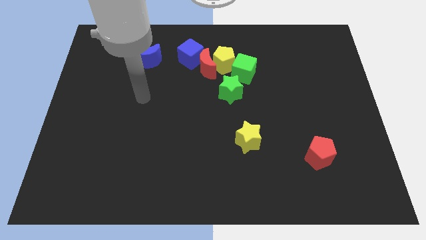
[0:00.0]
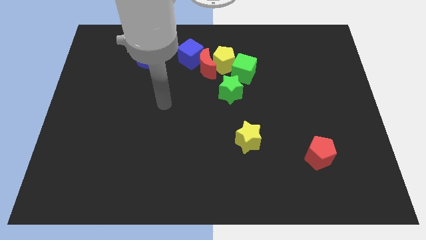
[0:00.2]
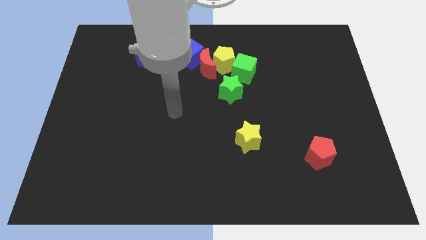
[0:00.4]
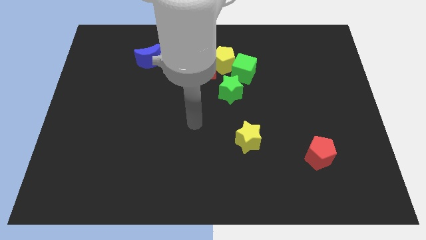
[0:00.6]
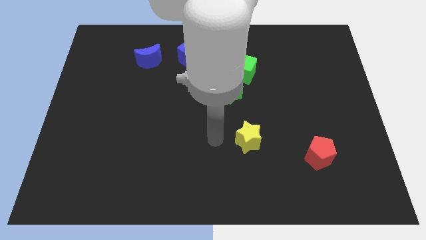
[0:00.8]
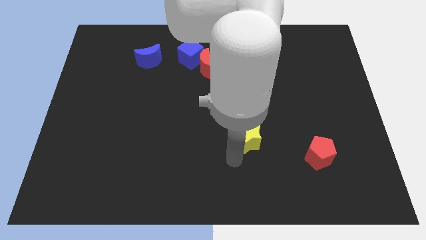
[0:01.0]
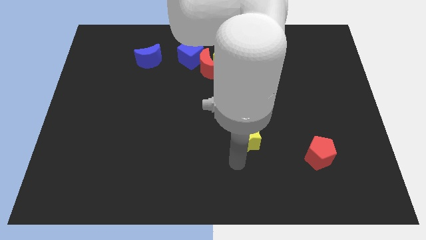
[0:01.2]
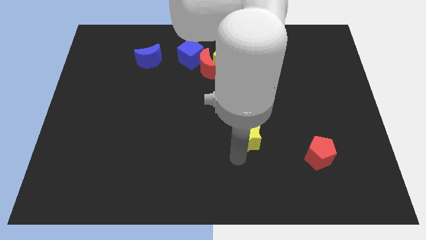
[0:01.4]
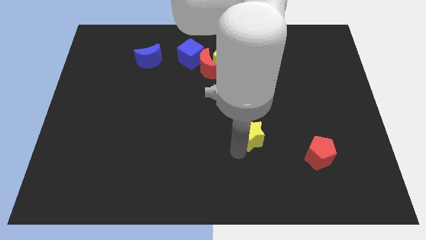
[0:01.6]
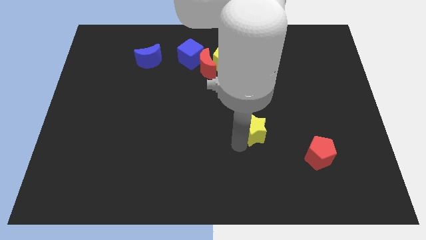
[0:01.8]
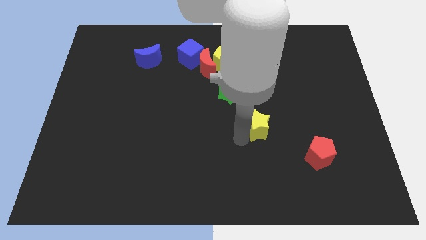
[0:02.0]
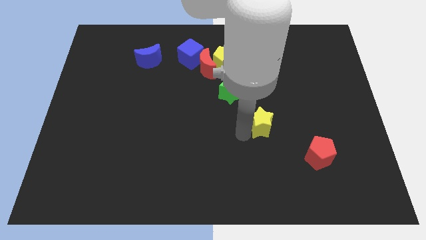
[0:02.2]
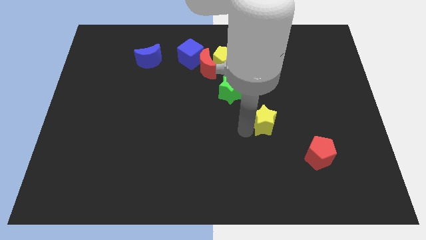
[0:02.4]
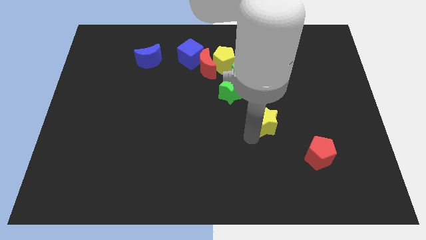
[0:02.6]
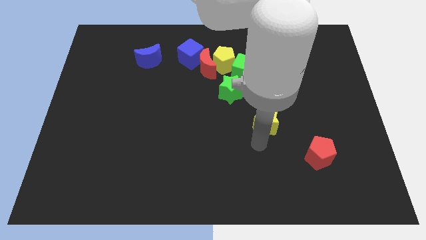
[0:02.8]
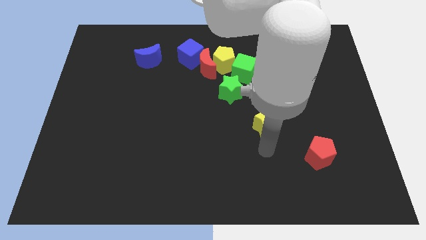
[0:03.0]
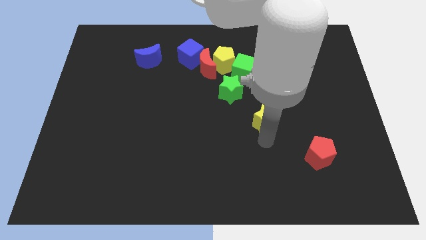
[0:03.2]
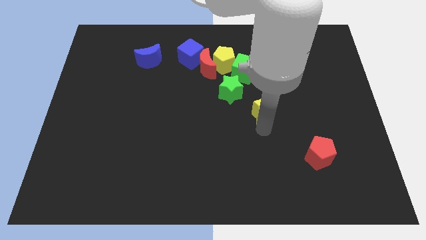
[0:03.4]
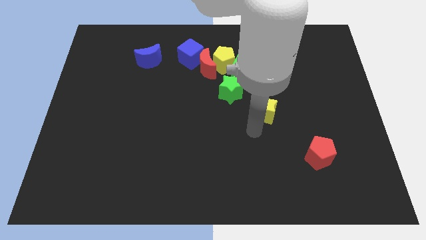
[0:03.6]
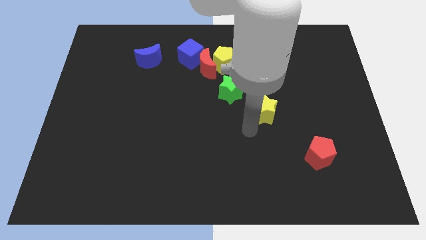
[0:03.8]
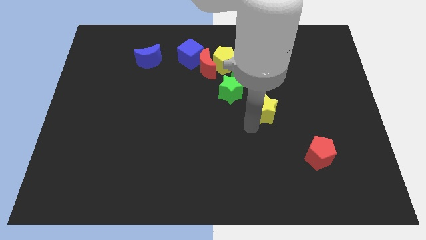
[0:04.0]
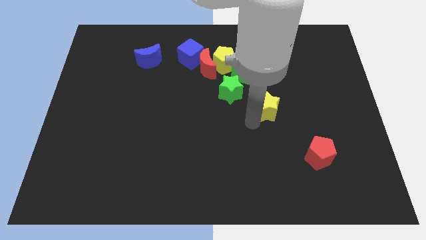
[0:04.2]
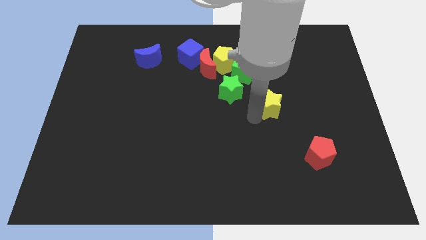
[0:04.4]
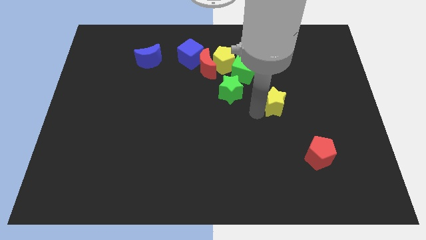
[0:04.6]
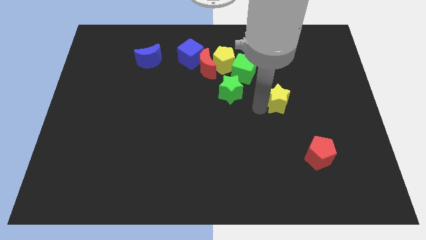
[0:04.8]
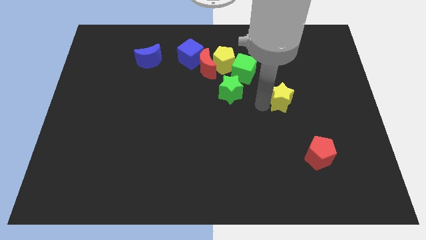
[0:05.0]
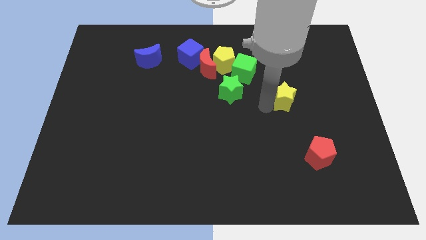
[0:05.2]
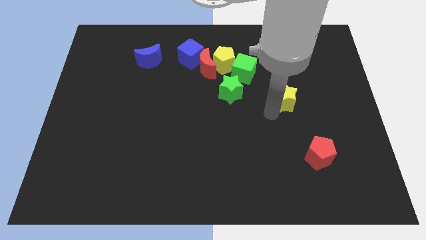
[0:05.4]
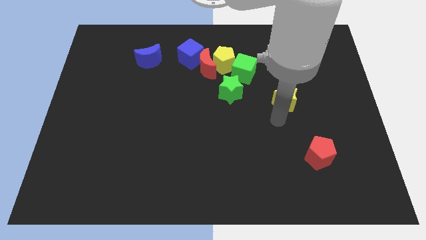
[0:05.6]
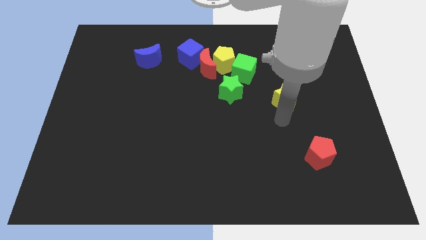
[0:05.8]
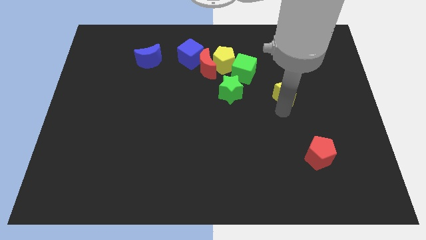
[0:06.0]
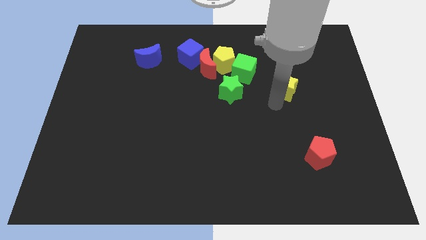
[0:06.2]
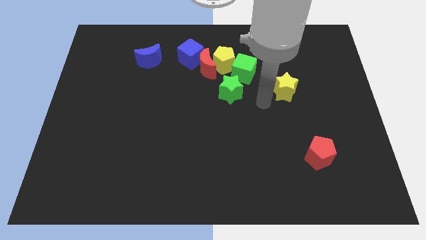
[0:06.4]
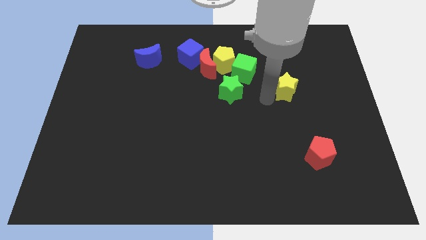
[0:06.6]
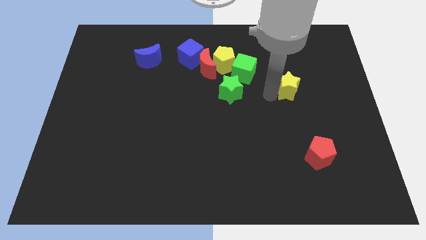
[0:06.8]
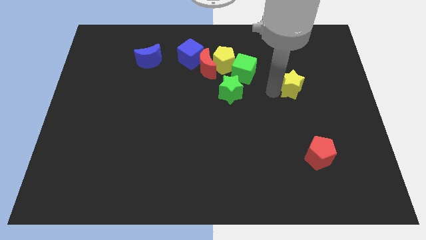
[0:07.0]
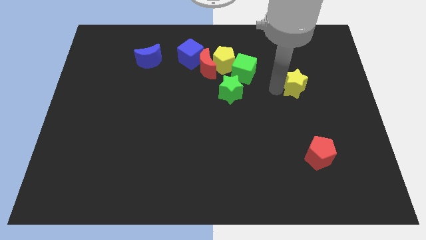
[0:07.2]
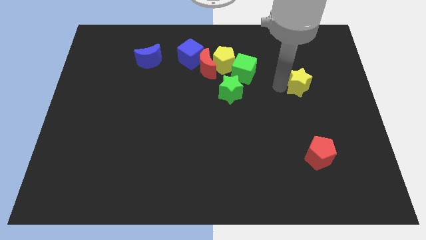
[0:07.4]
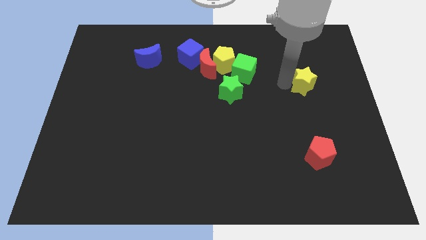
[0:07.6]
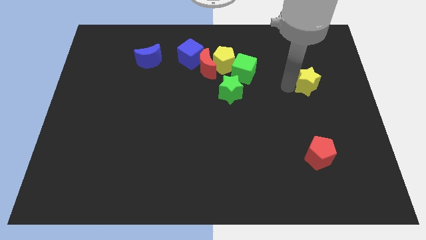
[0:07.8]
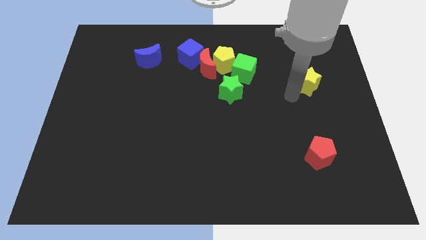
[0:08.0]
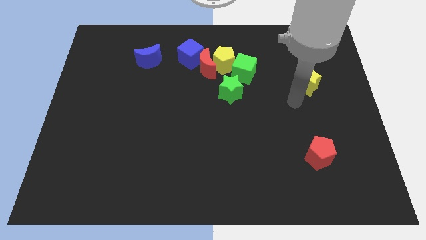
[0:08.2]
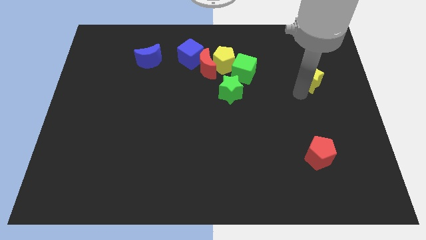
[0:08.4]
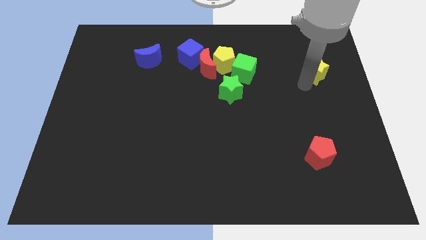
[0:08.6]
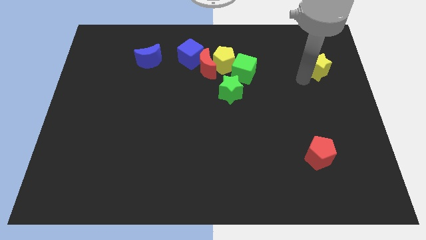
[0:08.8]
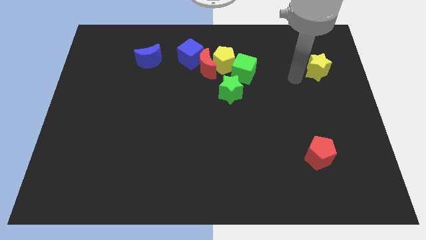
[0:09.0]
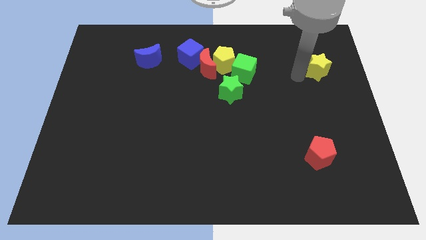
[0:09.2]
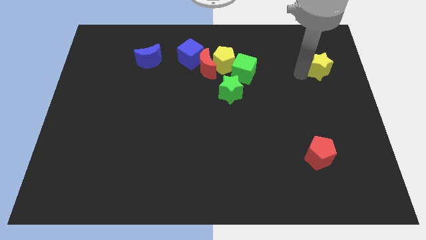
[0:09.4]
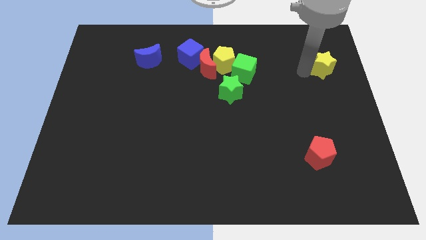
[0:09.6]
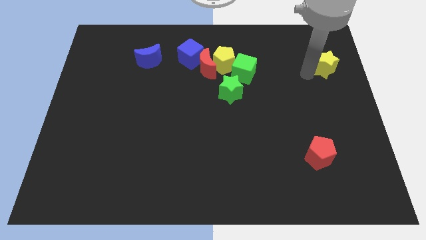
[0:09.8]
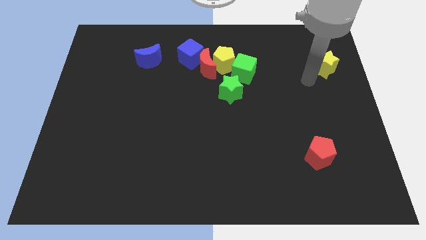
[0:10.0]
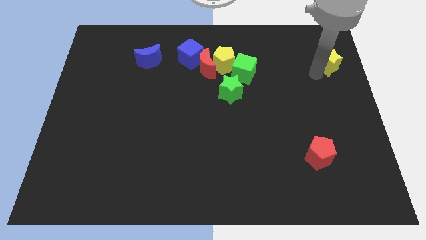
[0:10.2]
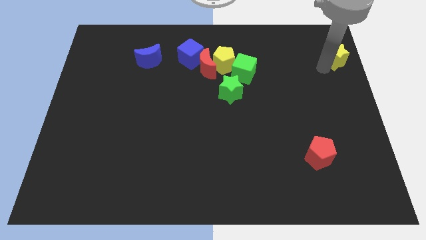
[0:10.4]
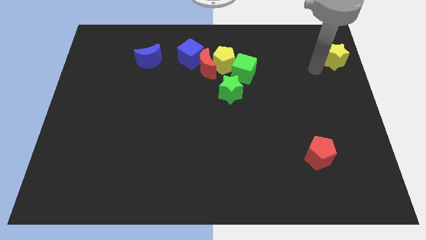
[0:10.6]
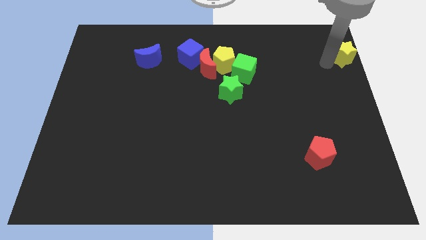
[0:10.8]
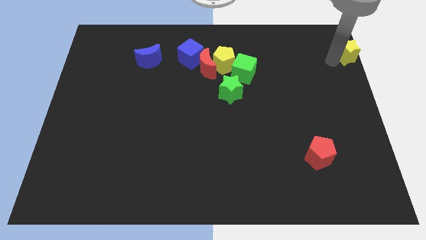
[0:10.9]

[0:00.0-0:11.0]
put the yellow star to the top right
